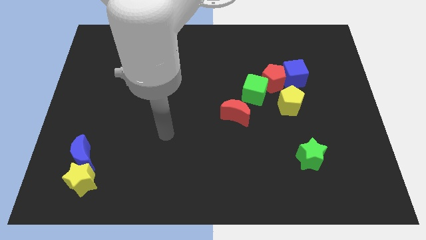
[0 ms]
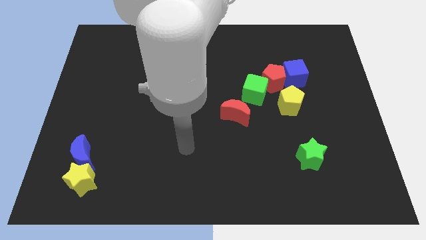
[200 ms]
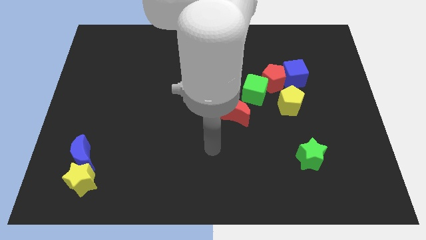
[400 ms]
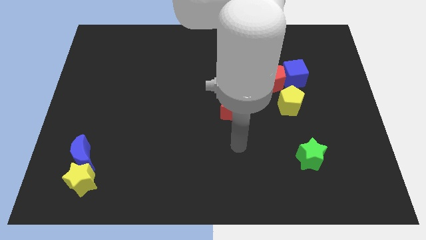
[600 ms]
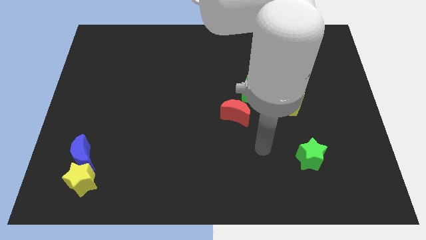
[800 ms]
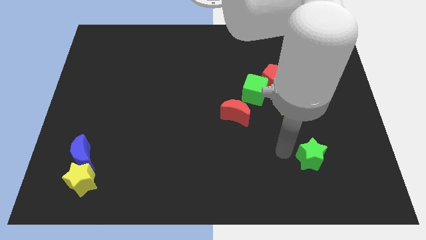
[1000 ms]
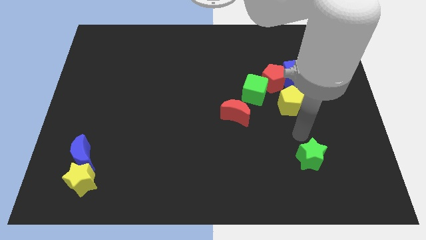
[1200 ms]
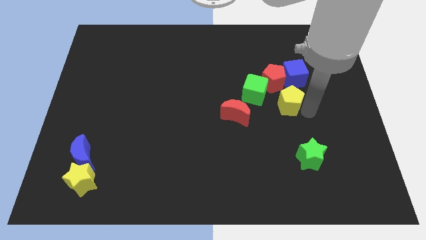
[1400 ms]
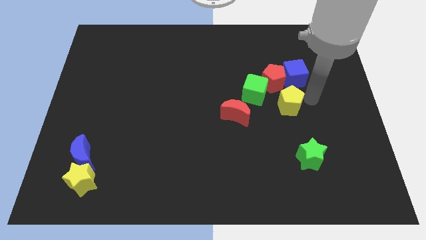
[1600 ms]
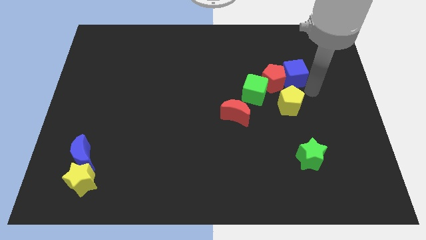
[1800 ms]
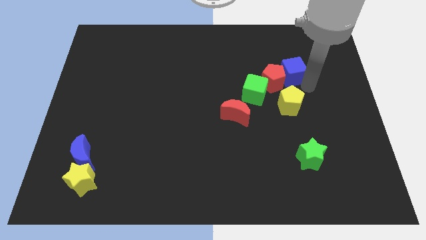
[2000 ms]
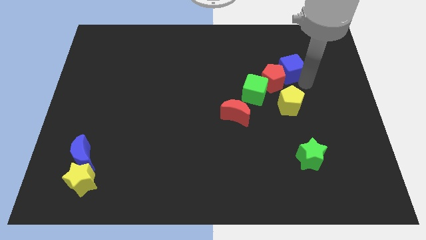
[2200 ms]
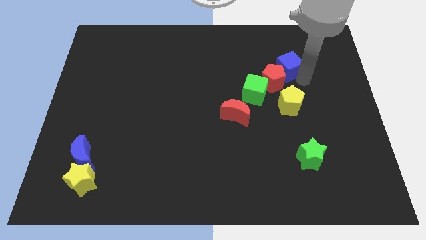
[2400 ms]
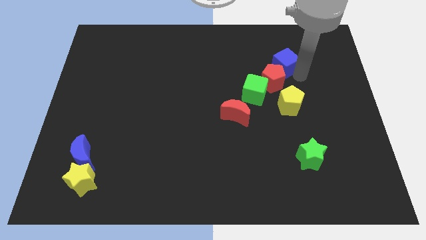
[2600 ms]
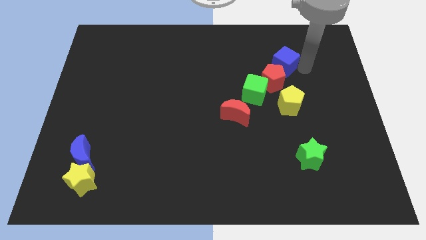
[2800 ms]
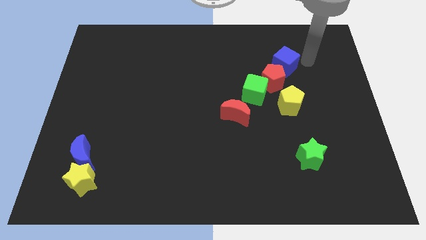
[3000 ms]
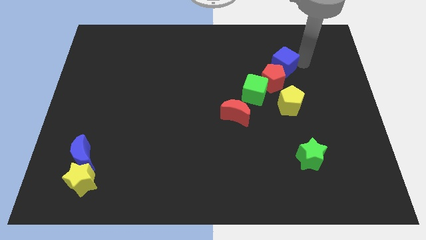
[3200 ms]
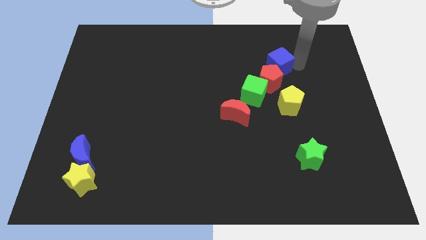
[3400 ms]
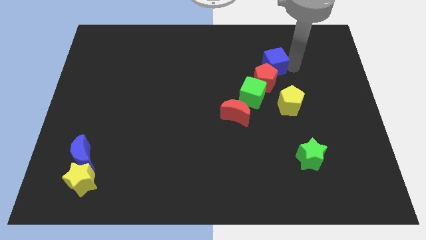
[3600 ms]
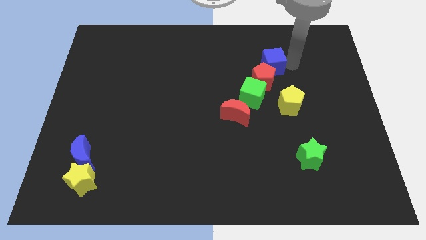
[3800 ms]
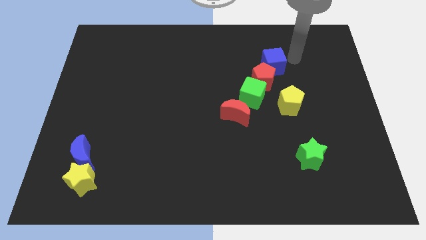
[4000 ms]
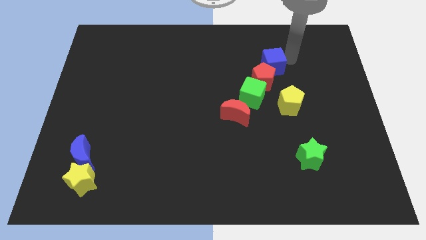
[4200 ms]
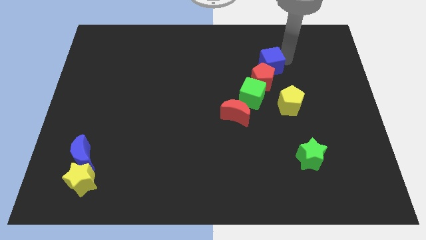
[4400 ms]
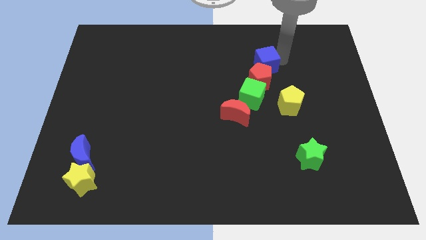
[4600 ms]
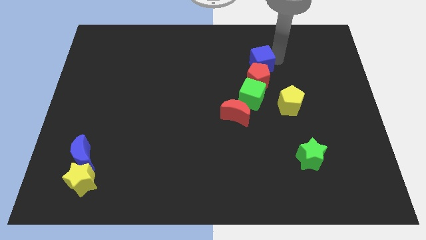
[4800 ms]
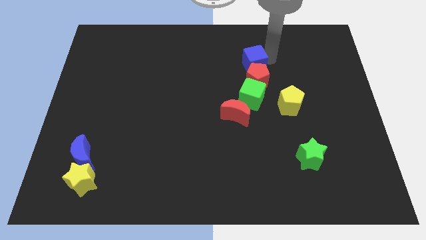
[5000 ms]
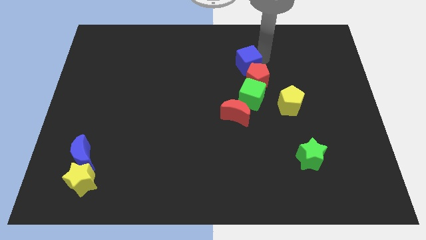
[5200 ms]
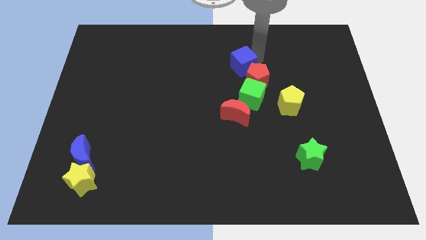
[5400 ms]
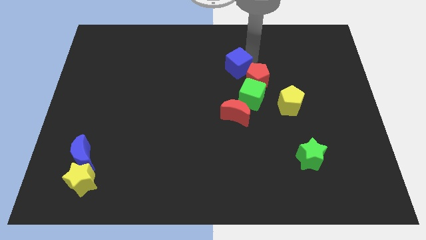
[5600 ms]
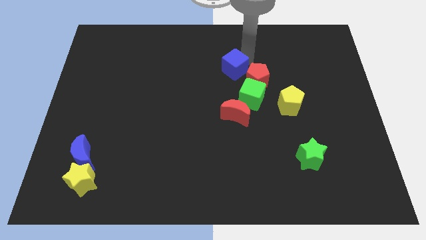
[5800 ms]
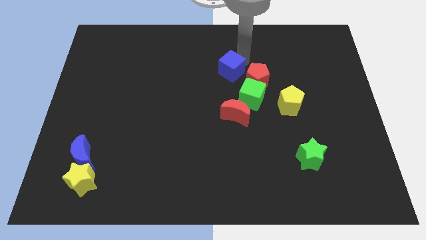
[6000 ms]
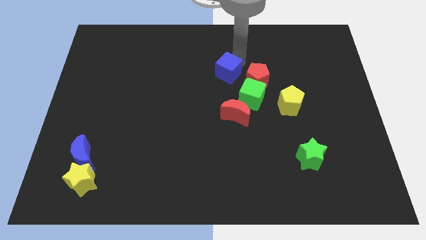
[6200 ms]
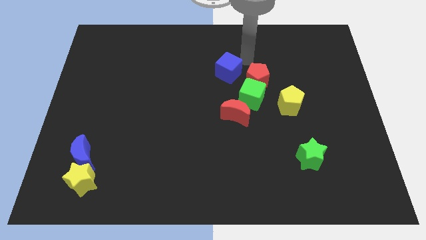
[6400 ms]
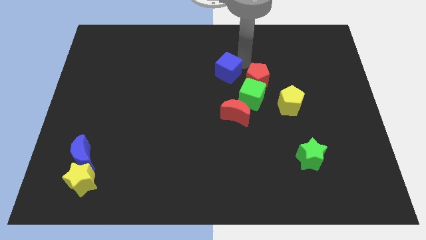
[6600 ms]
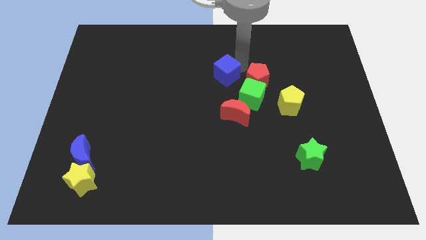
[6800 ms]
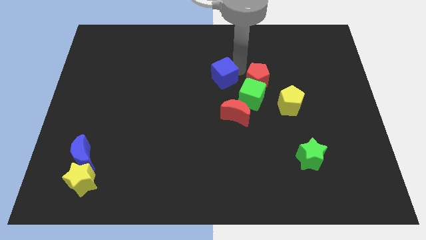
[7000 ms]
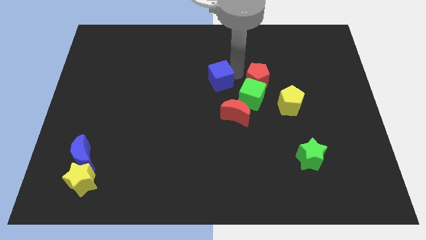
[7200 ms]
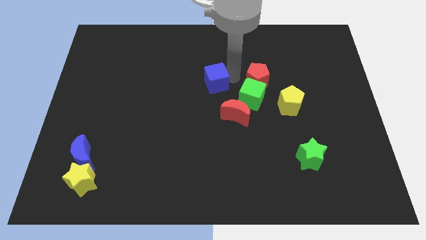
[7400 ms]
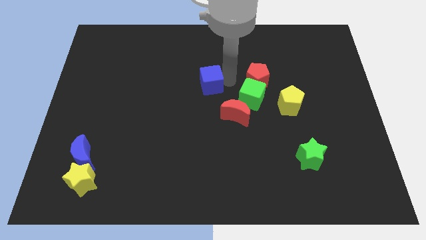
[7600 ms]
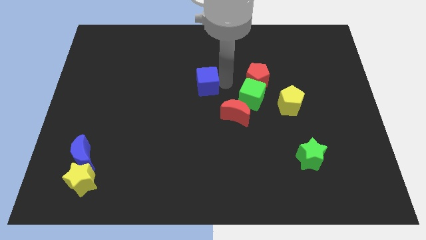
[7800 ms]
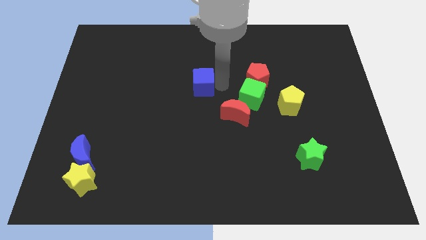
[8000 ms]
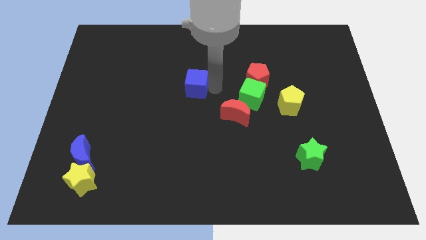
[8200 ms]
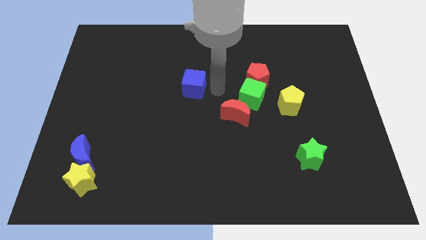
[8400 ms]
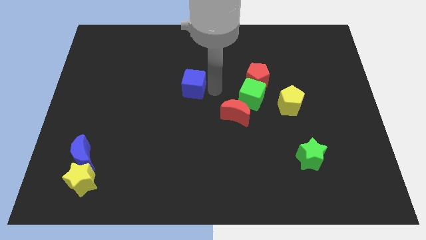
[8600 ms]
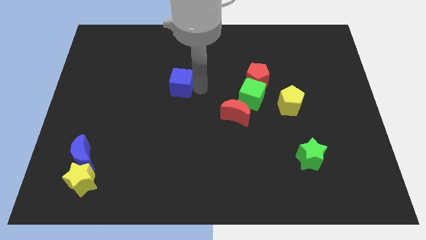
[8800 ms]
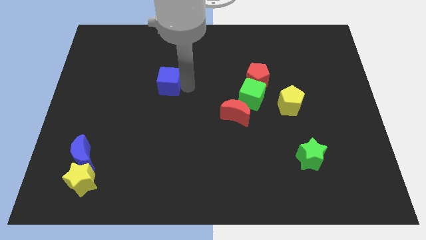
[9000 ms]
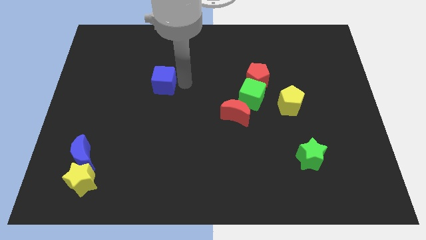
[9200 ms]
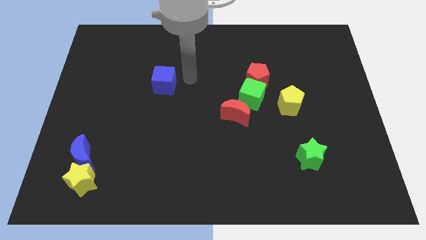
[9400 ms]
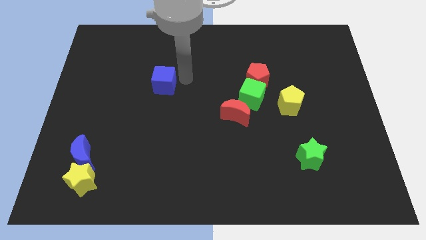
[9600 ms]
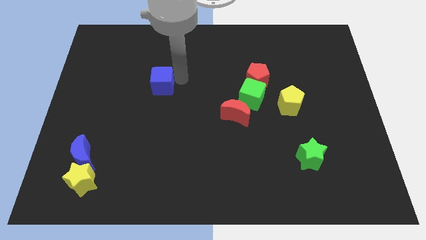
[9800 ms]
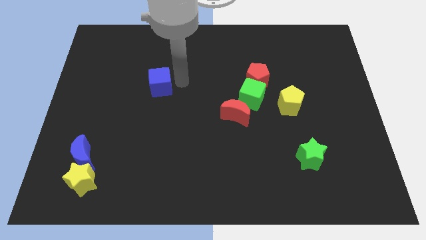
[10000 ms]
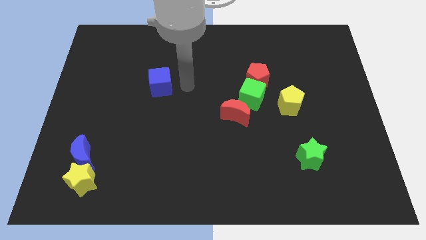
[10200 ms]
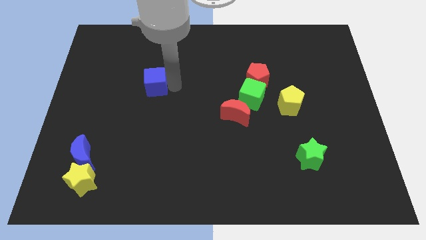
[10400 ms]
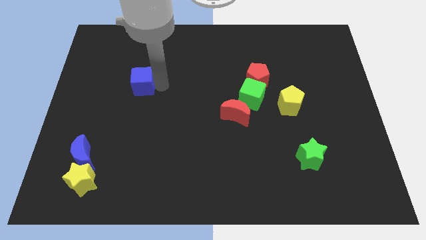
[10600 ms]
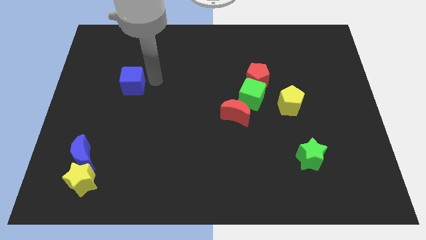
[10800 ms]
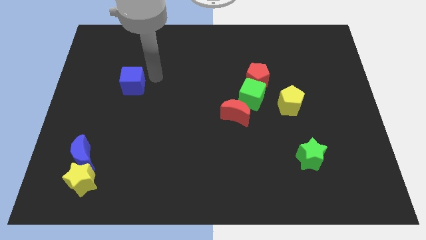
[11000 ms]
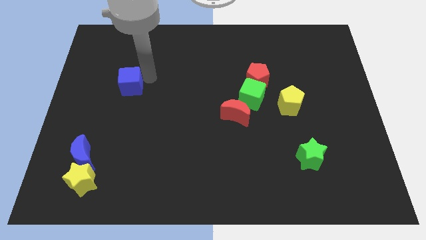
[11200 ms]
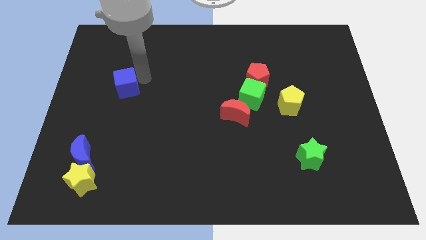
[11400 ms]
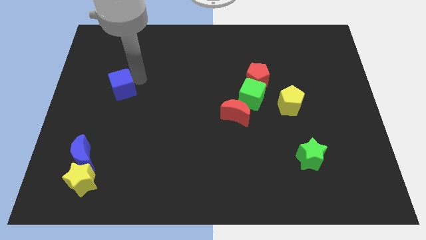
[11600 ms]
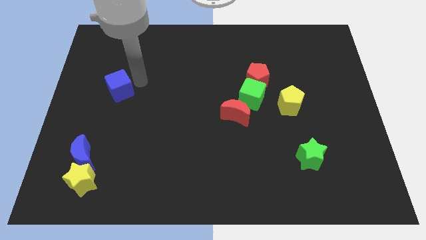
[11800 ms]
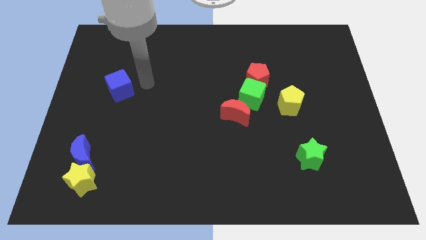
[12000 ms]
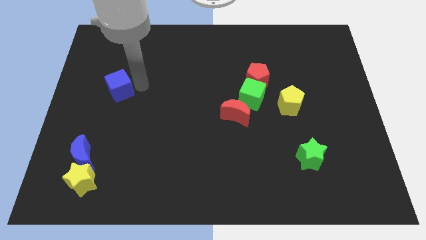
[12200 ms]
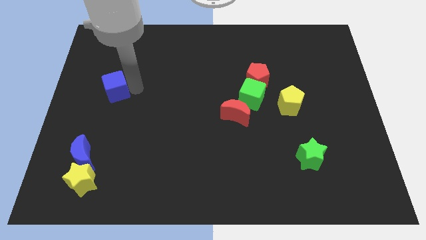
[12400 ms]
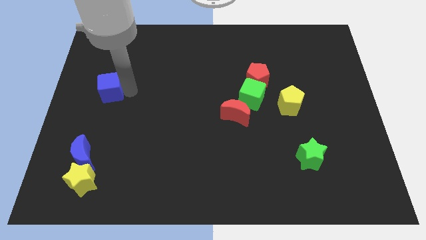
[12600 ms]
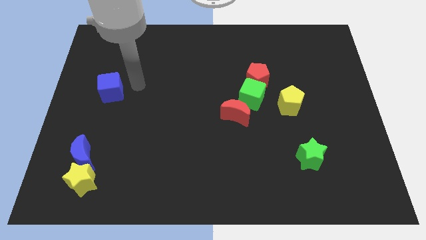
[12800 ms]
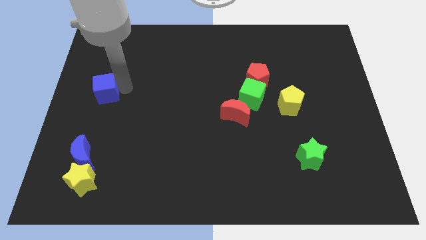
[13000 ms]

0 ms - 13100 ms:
slide the blue cube to the left side
